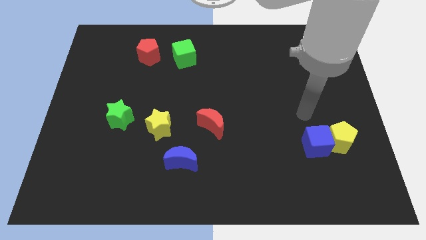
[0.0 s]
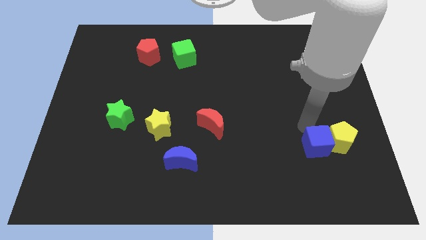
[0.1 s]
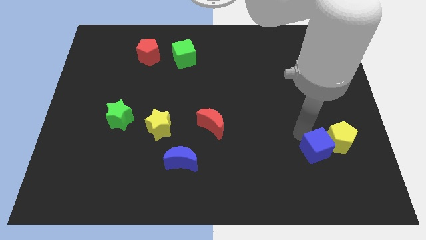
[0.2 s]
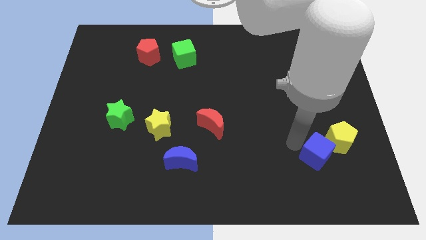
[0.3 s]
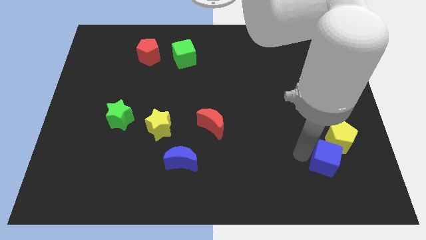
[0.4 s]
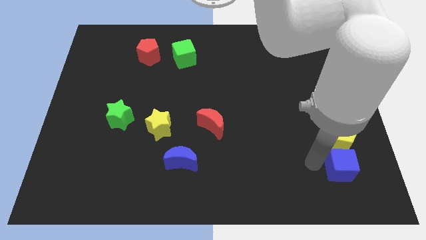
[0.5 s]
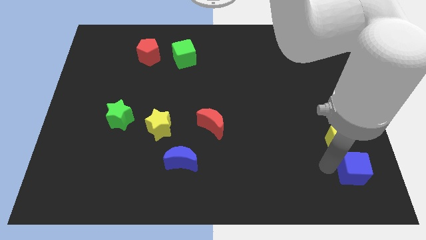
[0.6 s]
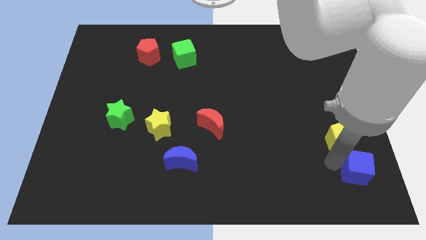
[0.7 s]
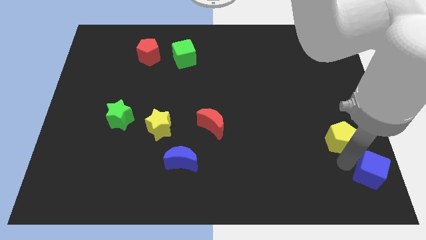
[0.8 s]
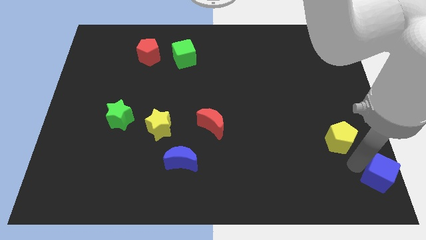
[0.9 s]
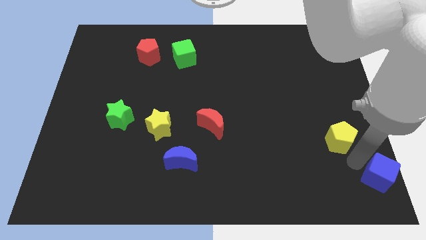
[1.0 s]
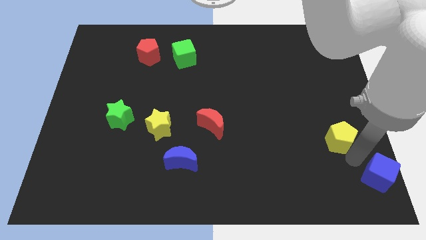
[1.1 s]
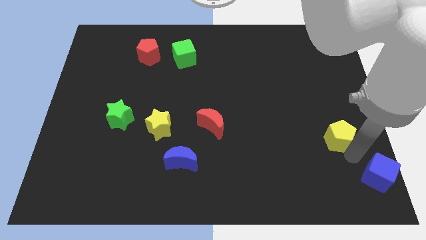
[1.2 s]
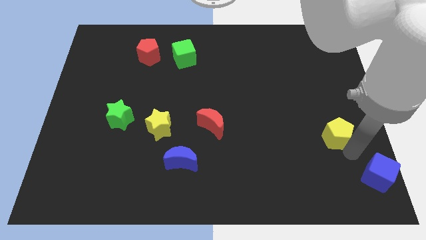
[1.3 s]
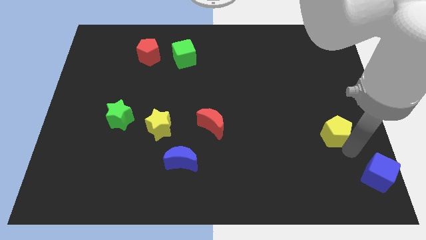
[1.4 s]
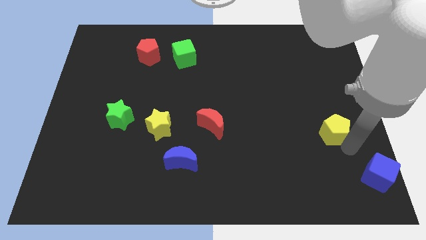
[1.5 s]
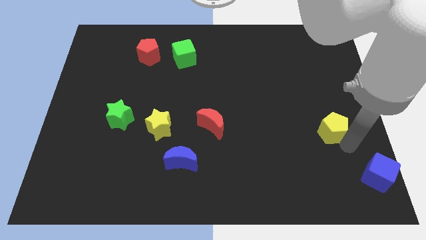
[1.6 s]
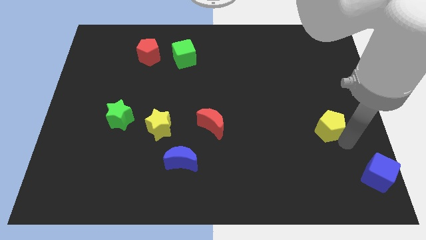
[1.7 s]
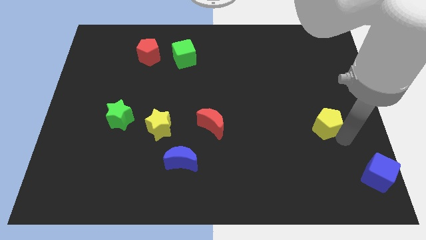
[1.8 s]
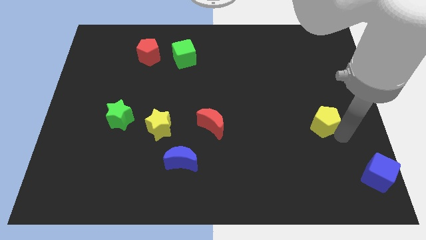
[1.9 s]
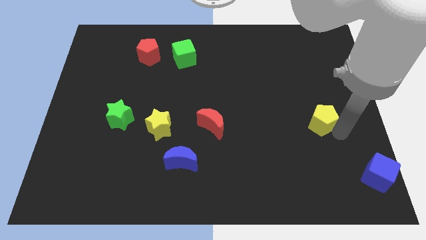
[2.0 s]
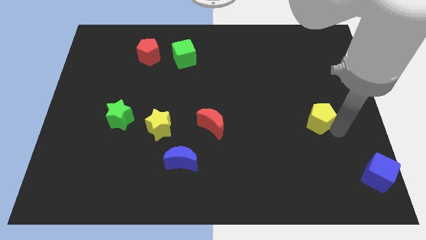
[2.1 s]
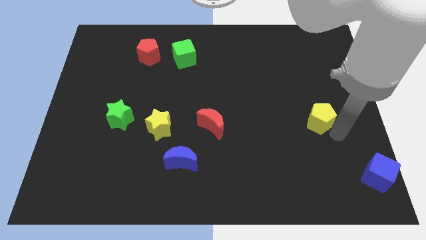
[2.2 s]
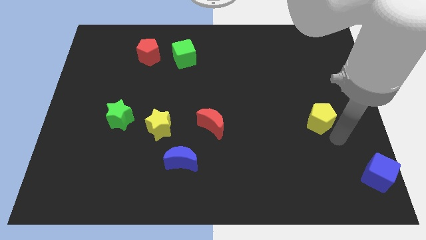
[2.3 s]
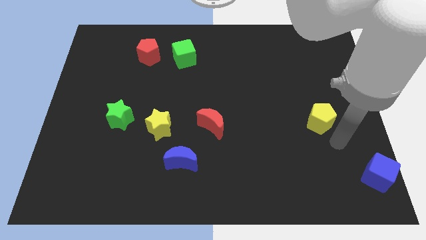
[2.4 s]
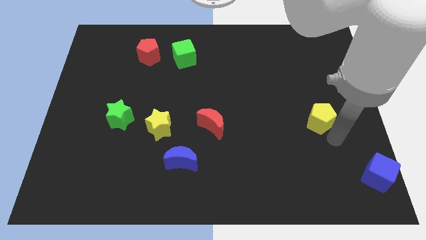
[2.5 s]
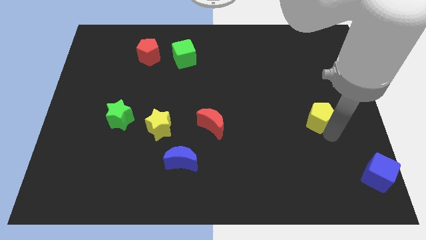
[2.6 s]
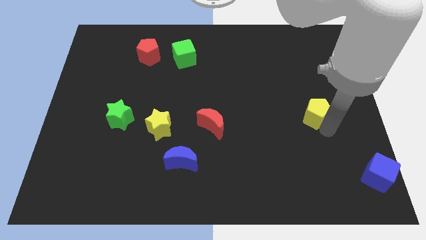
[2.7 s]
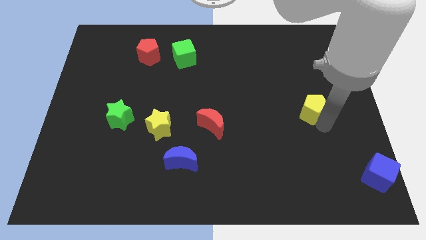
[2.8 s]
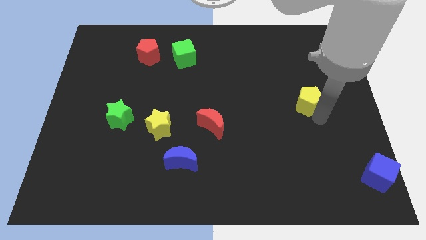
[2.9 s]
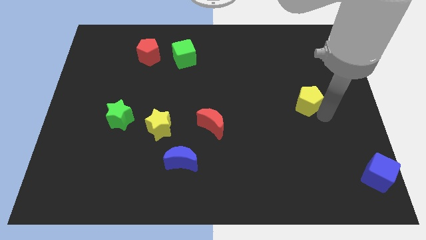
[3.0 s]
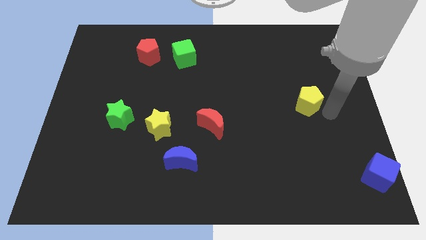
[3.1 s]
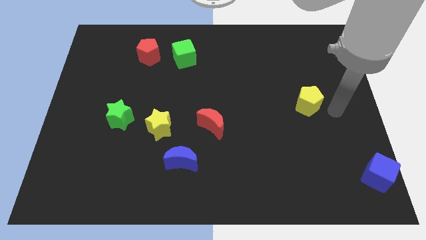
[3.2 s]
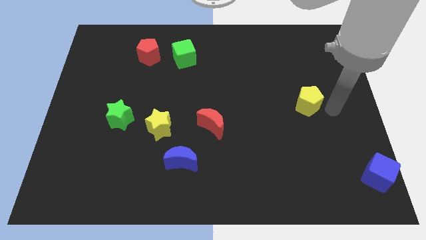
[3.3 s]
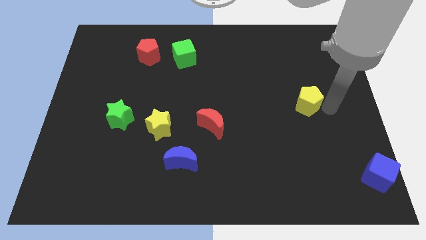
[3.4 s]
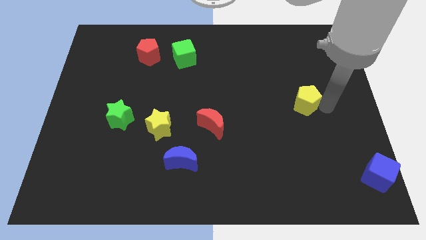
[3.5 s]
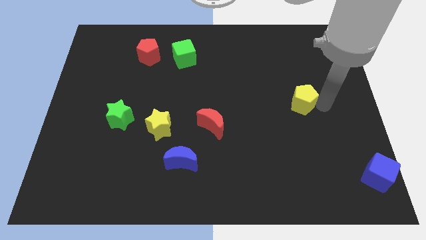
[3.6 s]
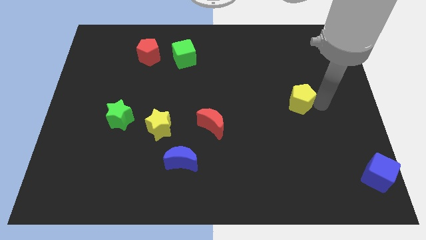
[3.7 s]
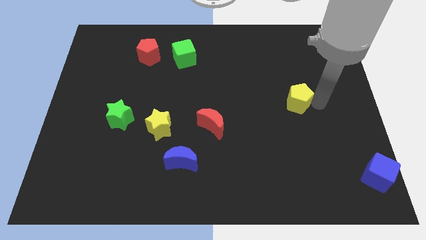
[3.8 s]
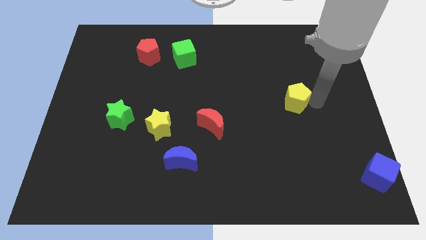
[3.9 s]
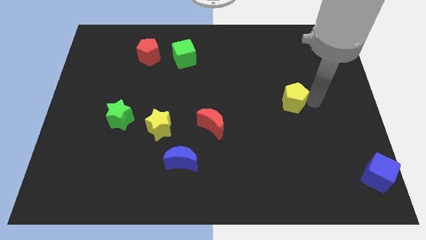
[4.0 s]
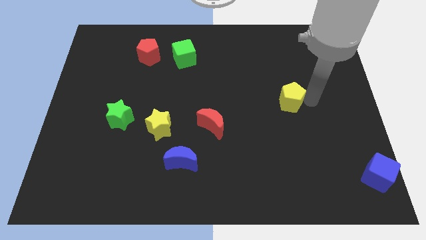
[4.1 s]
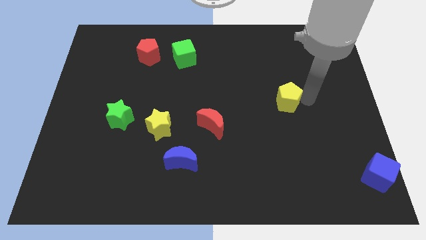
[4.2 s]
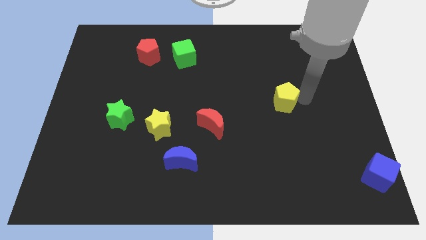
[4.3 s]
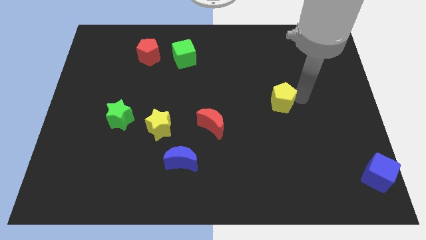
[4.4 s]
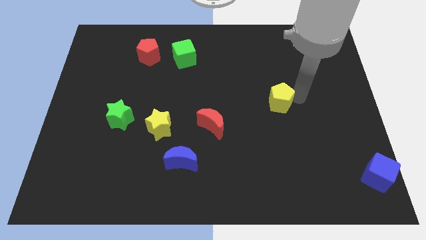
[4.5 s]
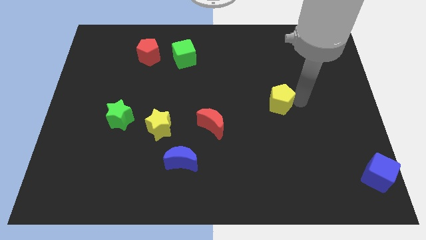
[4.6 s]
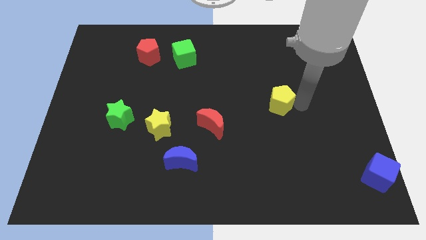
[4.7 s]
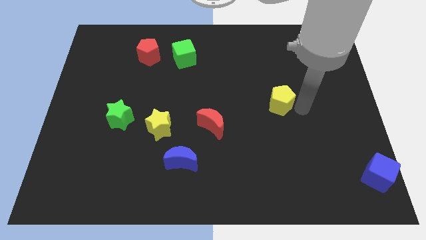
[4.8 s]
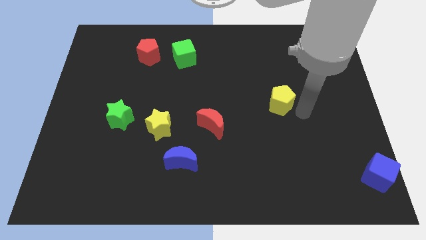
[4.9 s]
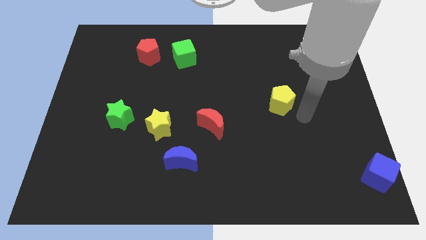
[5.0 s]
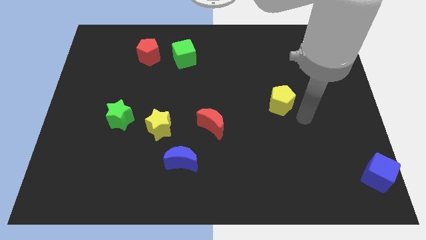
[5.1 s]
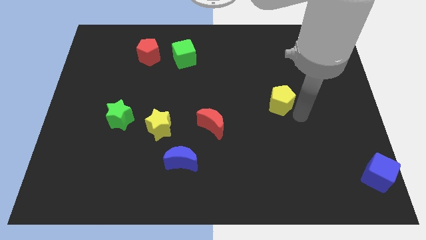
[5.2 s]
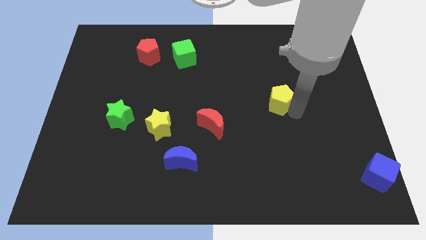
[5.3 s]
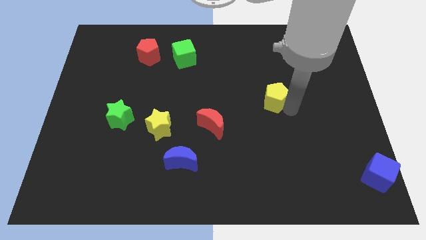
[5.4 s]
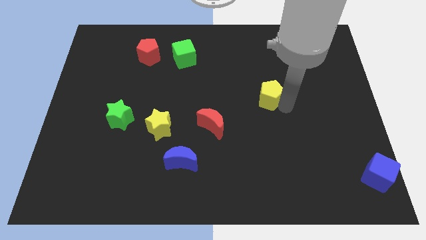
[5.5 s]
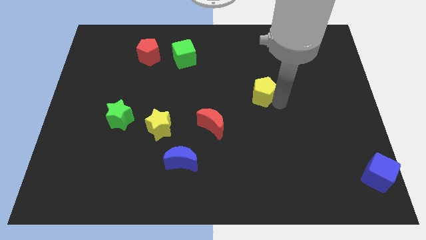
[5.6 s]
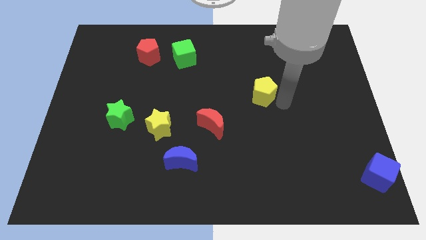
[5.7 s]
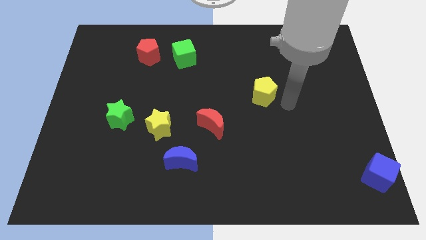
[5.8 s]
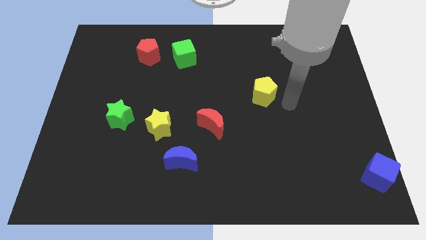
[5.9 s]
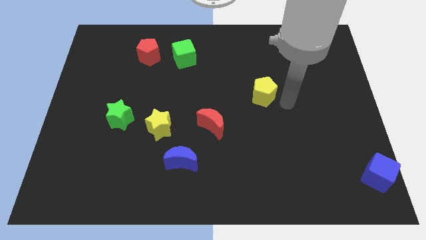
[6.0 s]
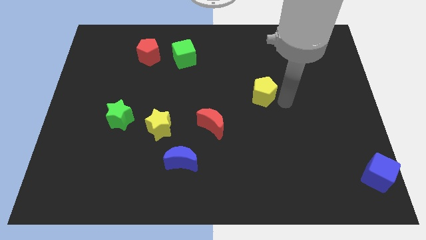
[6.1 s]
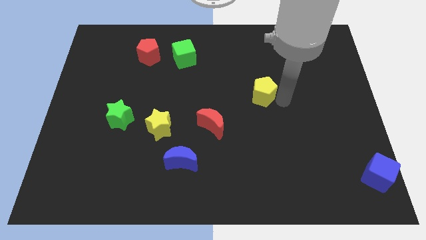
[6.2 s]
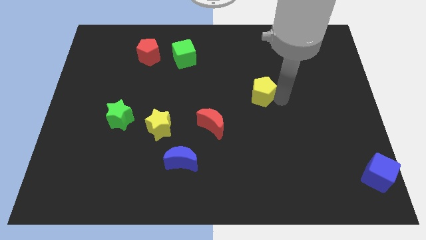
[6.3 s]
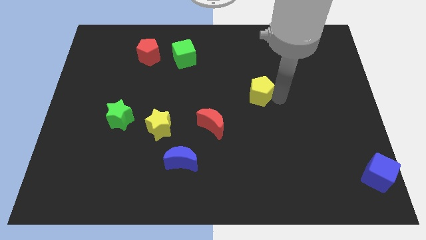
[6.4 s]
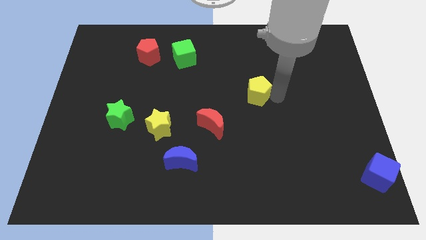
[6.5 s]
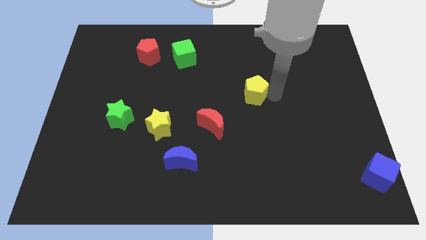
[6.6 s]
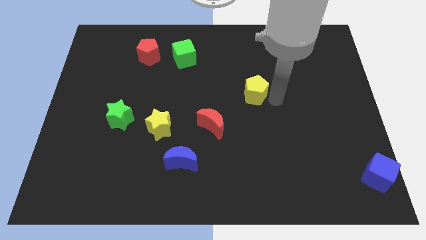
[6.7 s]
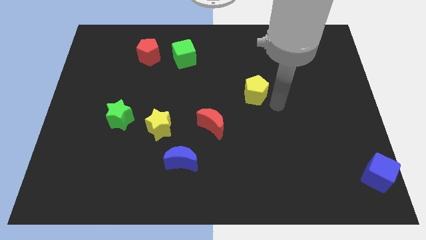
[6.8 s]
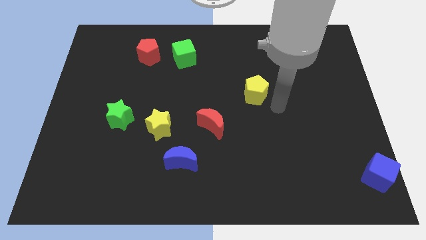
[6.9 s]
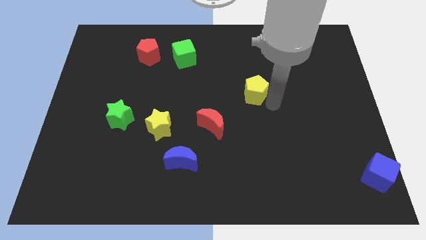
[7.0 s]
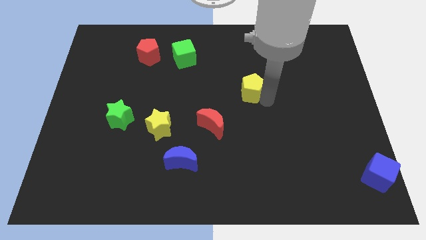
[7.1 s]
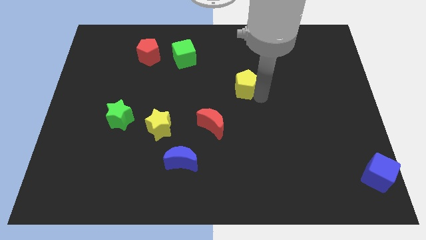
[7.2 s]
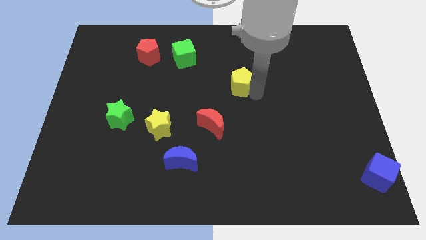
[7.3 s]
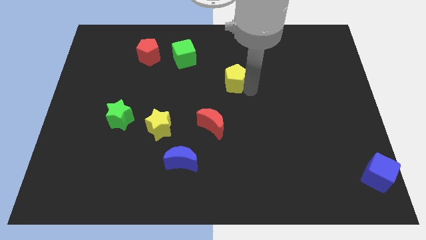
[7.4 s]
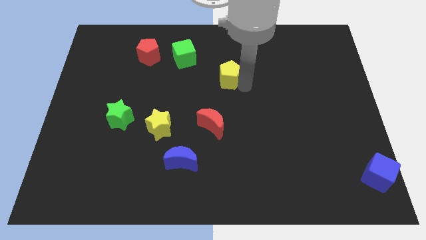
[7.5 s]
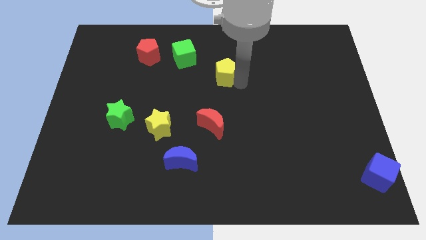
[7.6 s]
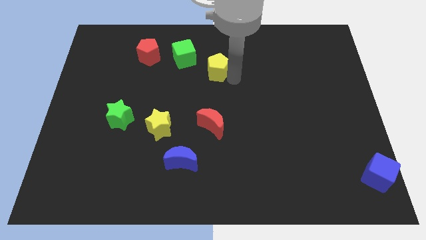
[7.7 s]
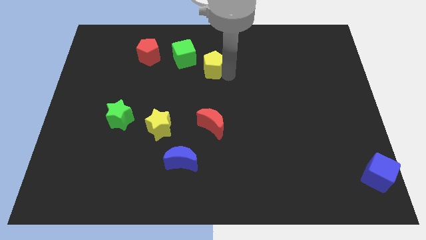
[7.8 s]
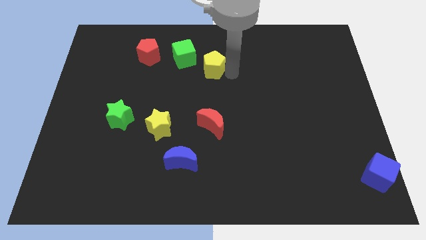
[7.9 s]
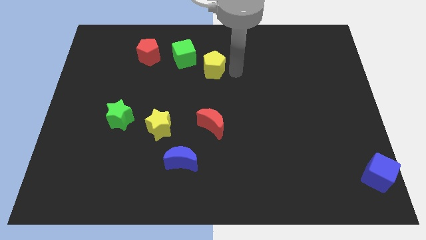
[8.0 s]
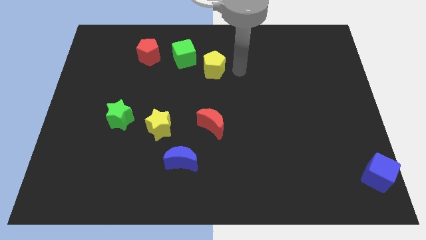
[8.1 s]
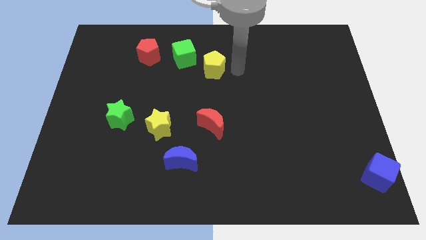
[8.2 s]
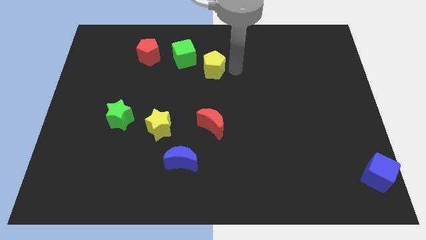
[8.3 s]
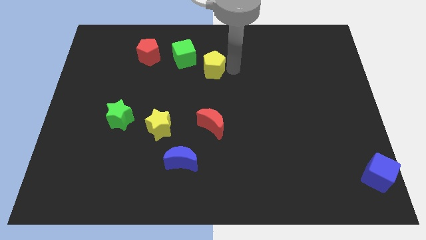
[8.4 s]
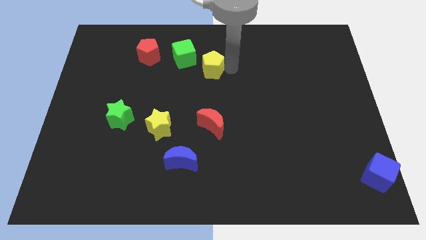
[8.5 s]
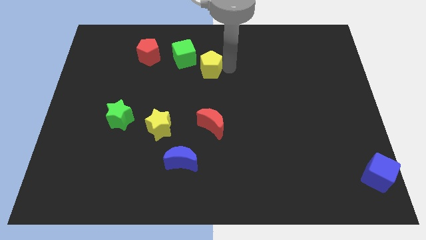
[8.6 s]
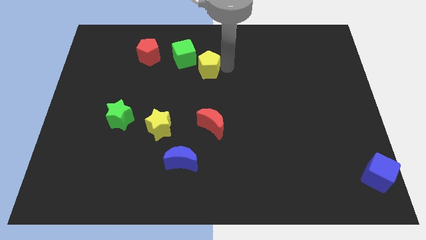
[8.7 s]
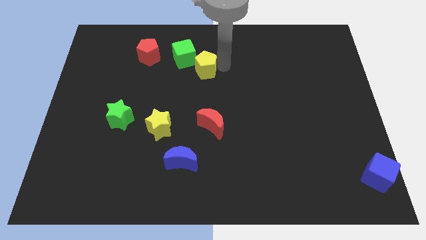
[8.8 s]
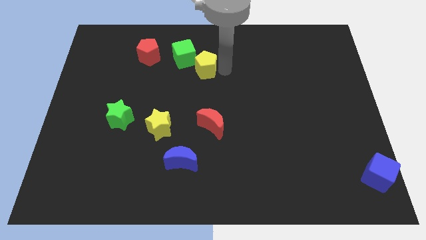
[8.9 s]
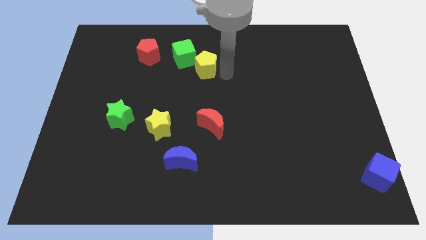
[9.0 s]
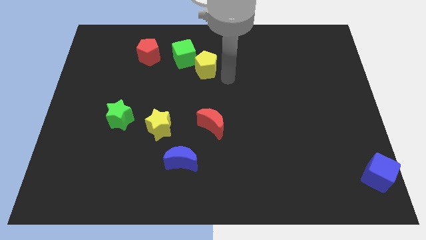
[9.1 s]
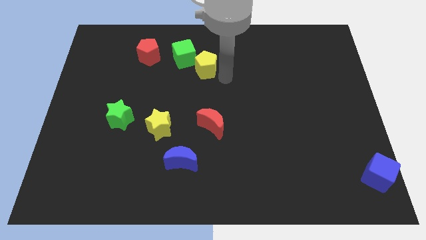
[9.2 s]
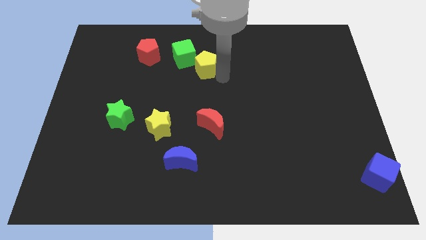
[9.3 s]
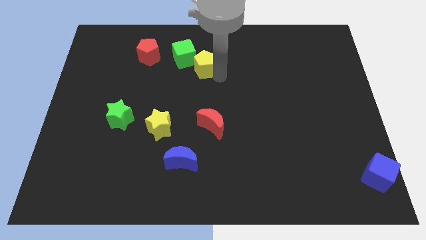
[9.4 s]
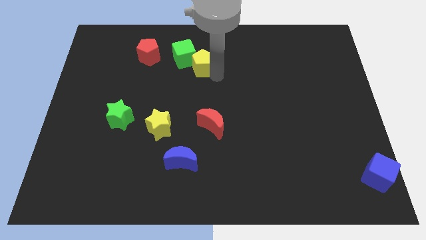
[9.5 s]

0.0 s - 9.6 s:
move the yellow pentagon towards the green cube
